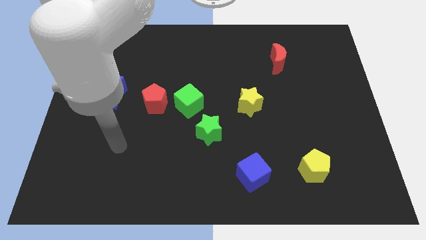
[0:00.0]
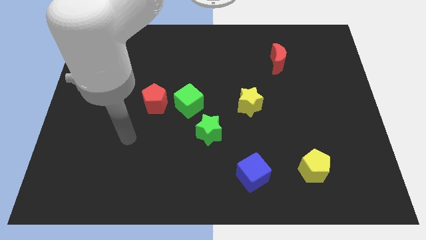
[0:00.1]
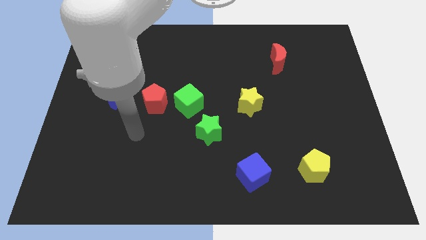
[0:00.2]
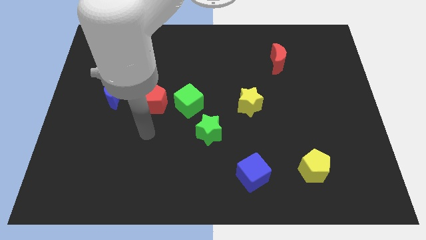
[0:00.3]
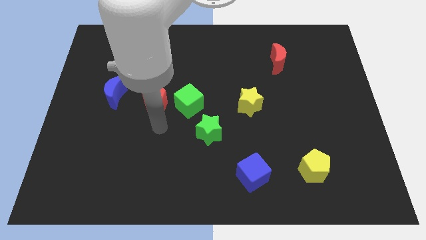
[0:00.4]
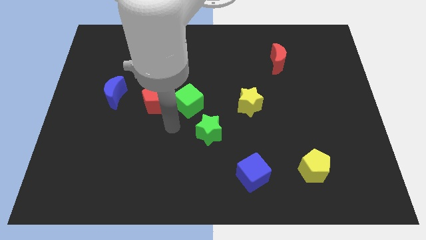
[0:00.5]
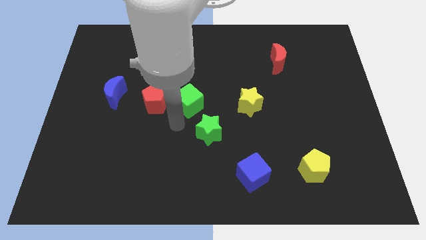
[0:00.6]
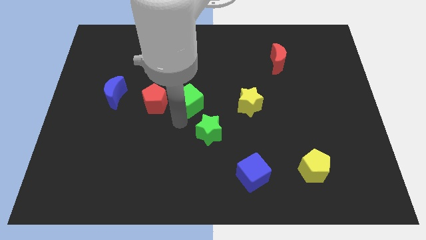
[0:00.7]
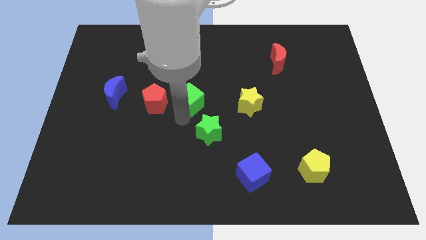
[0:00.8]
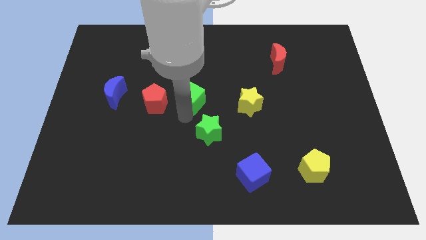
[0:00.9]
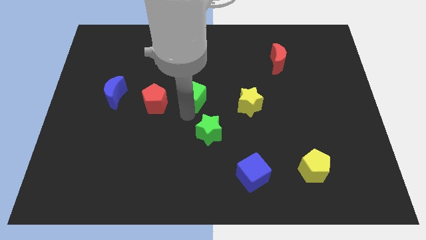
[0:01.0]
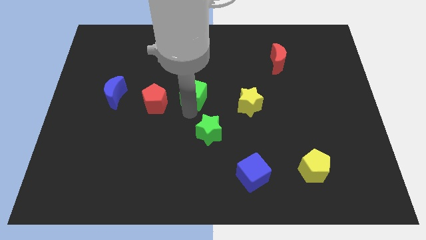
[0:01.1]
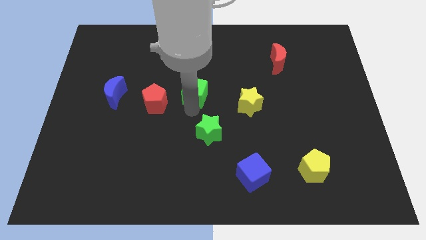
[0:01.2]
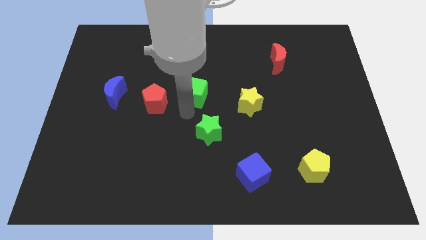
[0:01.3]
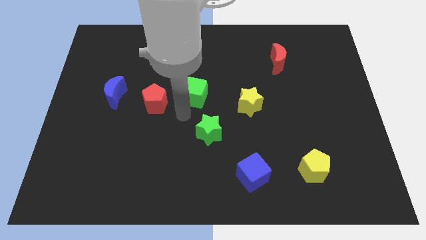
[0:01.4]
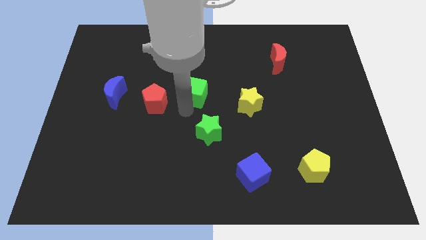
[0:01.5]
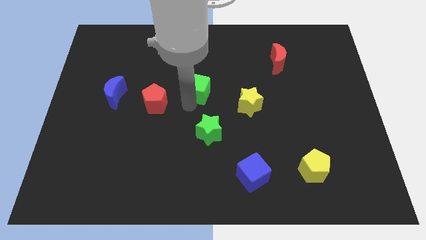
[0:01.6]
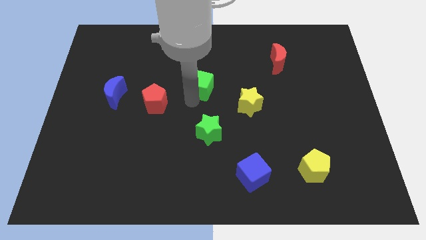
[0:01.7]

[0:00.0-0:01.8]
pull the green cube apart from the red pentagon and green star

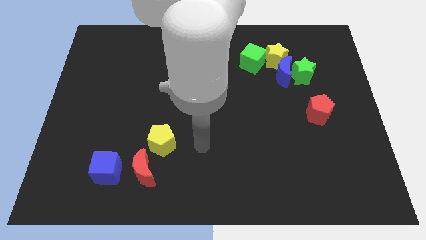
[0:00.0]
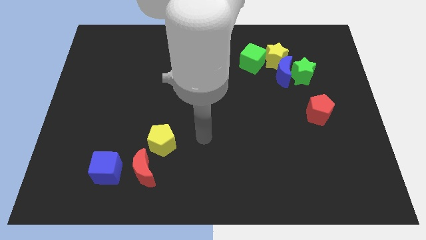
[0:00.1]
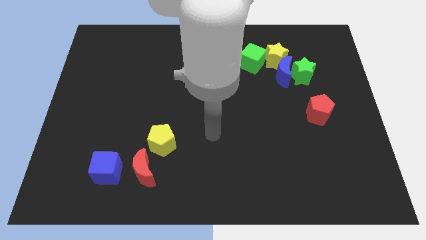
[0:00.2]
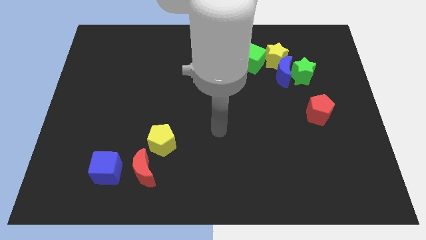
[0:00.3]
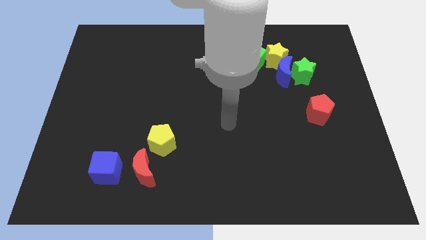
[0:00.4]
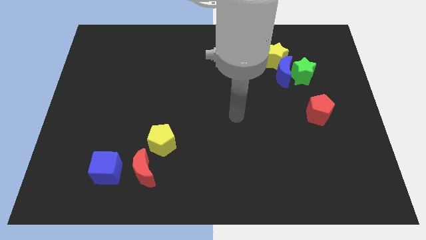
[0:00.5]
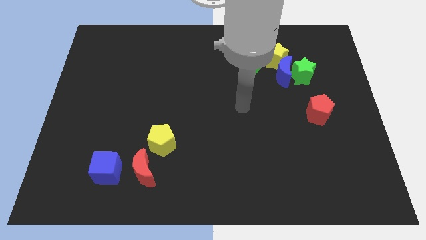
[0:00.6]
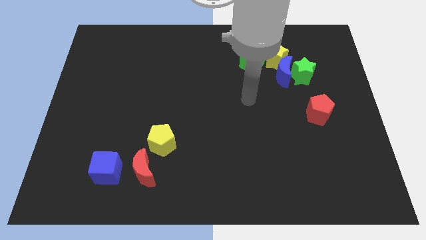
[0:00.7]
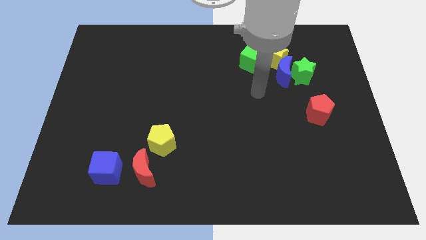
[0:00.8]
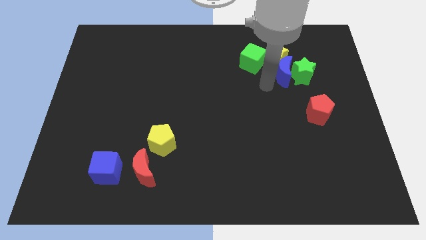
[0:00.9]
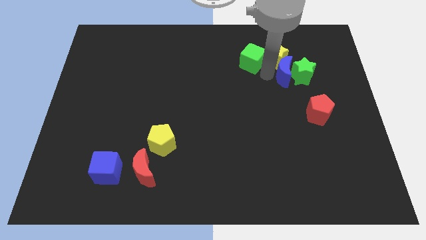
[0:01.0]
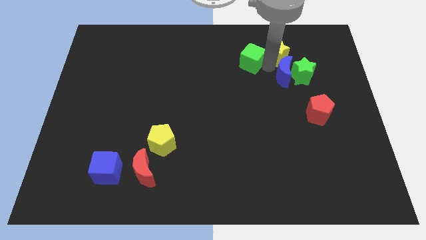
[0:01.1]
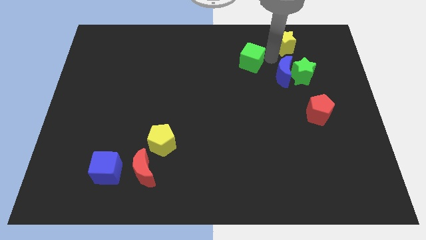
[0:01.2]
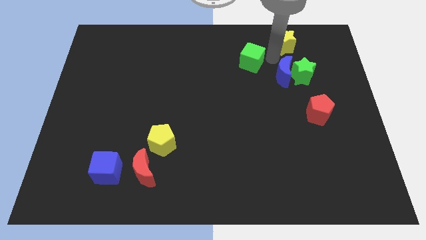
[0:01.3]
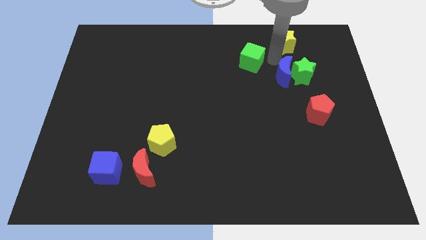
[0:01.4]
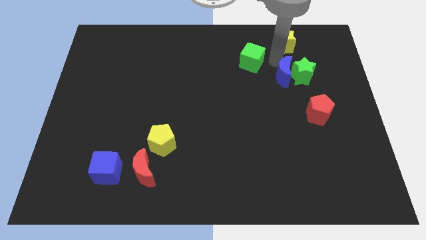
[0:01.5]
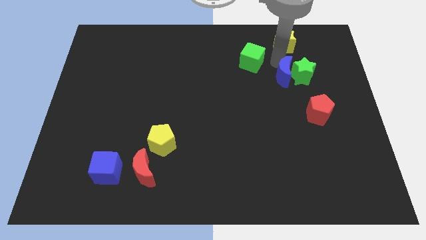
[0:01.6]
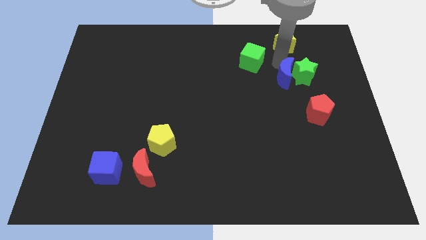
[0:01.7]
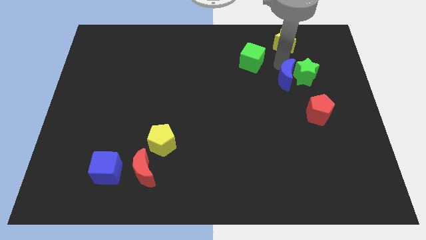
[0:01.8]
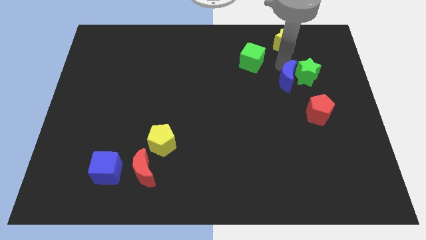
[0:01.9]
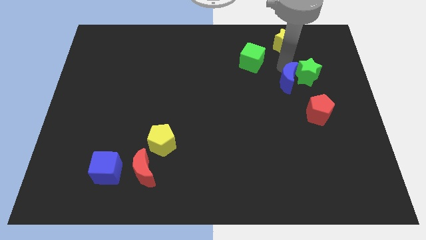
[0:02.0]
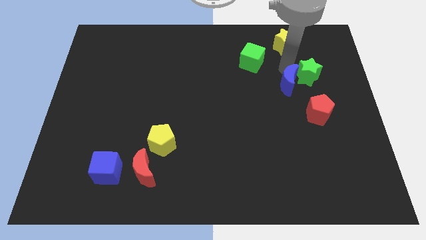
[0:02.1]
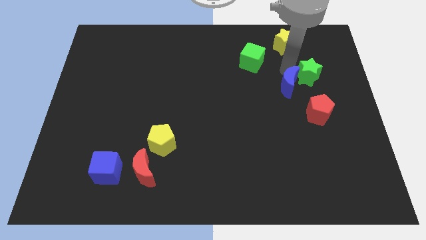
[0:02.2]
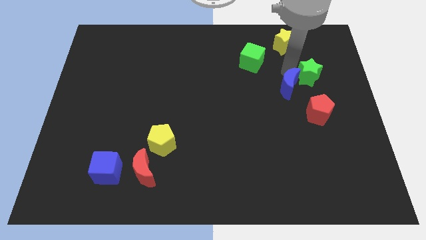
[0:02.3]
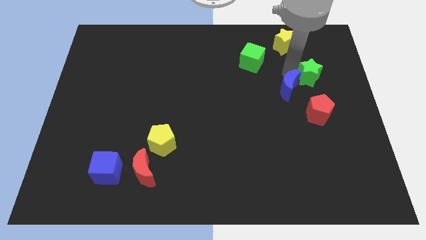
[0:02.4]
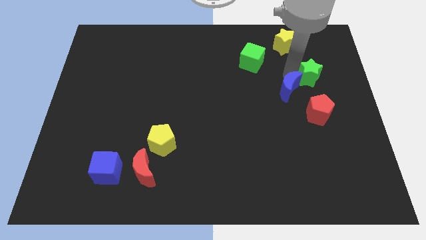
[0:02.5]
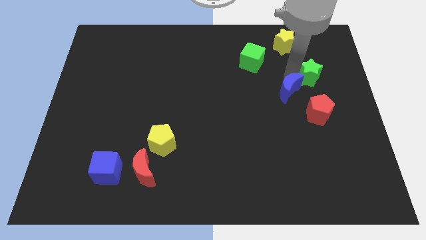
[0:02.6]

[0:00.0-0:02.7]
move the blue moon away from the green star, yellow star, and green cube

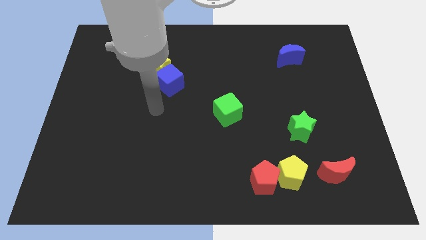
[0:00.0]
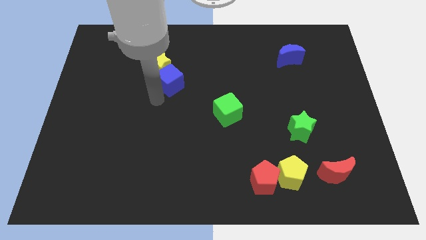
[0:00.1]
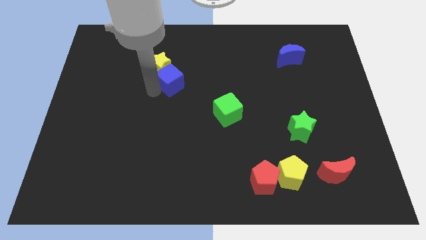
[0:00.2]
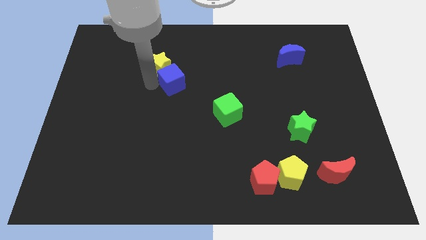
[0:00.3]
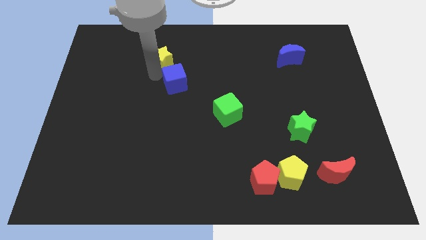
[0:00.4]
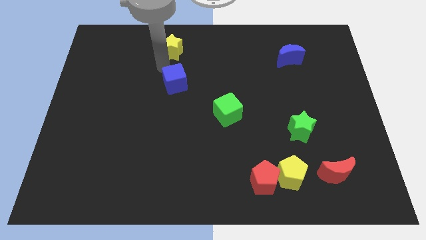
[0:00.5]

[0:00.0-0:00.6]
move the blue cube away from the yellow star

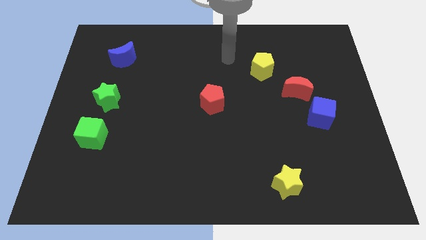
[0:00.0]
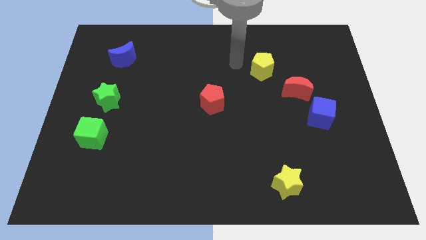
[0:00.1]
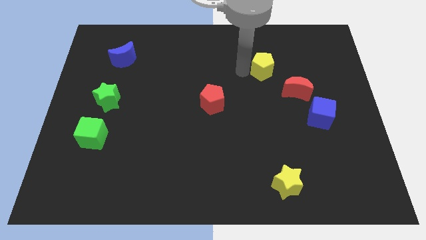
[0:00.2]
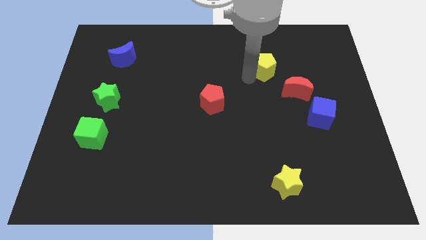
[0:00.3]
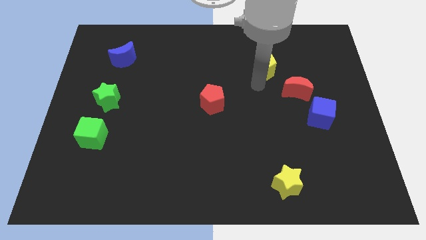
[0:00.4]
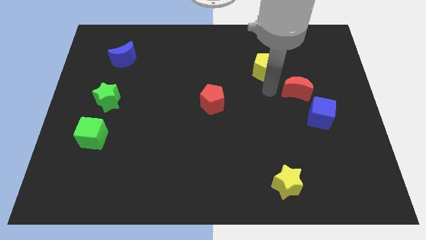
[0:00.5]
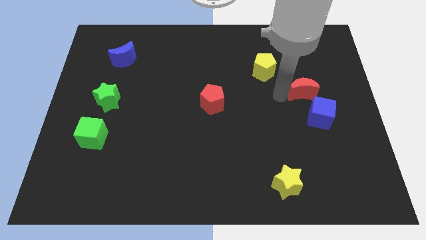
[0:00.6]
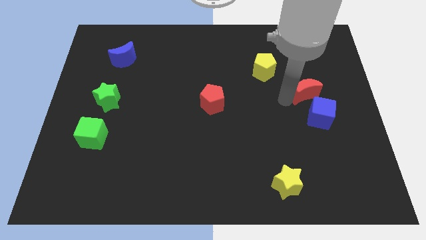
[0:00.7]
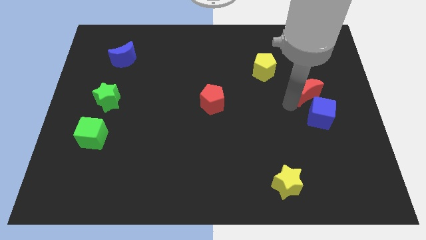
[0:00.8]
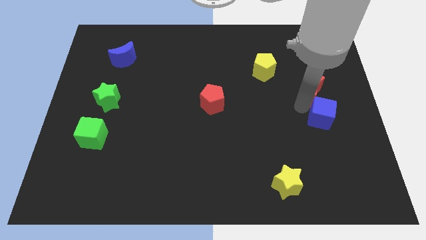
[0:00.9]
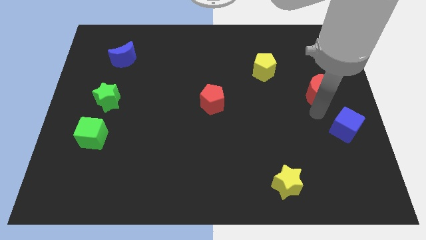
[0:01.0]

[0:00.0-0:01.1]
separate the red moon from the blue cube

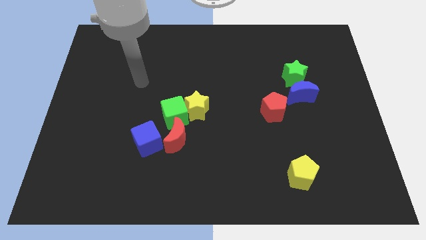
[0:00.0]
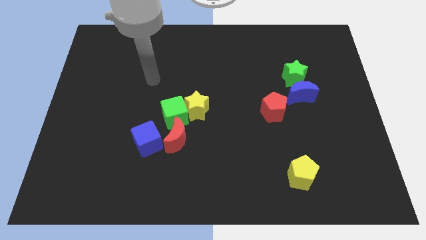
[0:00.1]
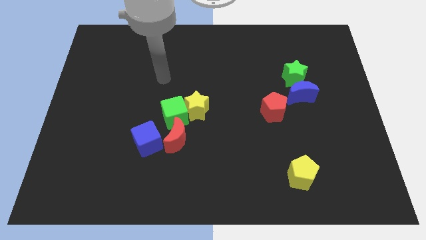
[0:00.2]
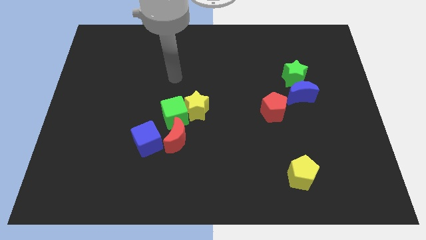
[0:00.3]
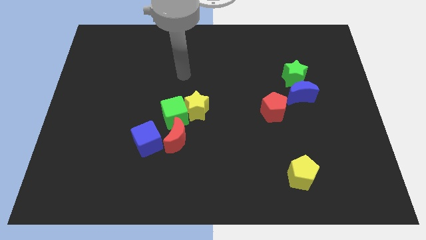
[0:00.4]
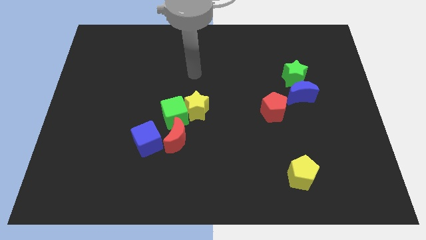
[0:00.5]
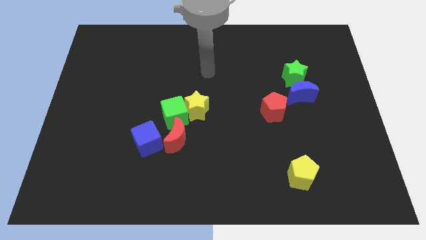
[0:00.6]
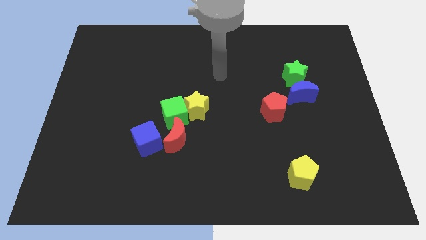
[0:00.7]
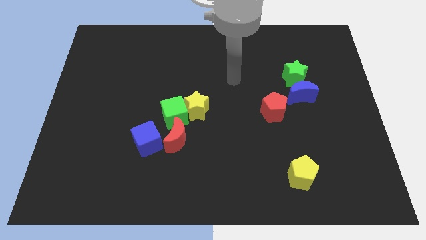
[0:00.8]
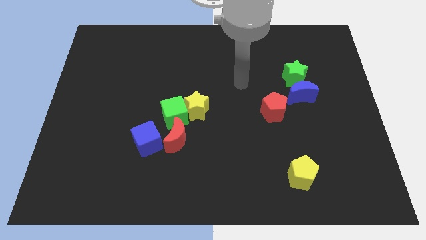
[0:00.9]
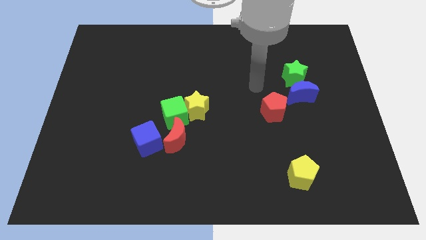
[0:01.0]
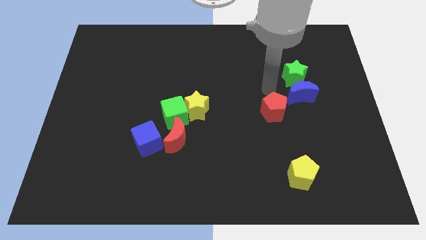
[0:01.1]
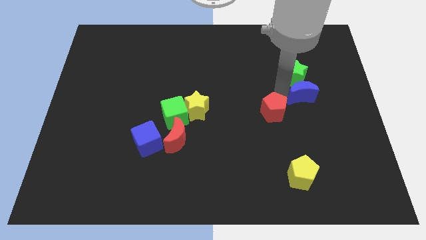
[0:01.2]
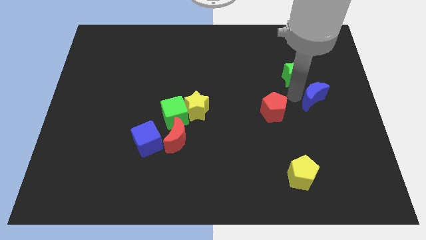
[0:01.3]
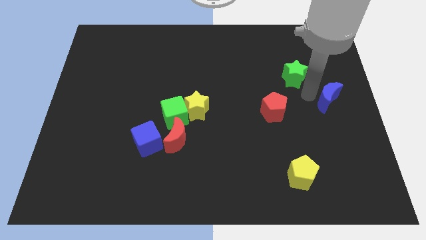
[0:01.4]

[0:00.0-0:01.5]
move the green star away from the blue moon

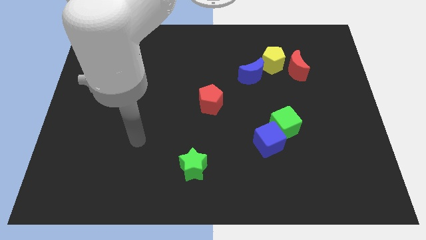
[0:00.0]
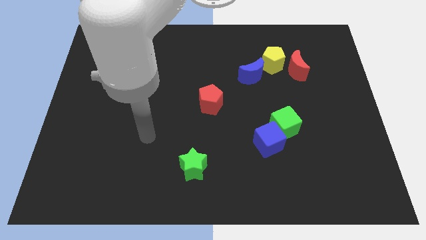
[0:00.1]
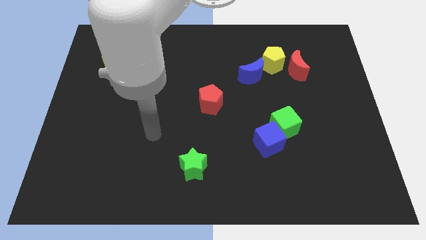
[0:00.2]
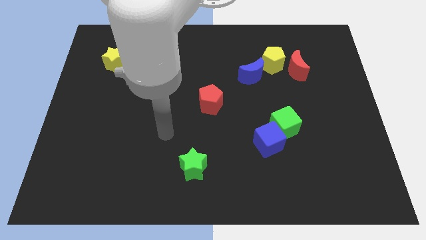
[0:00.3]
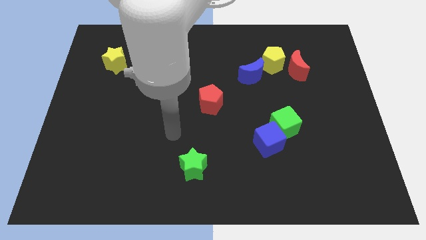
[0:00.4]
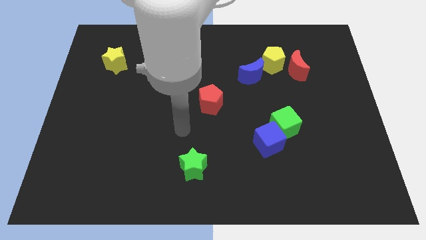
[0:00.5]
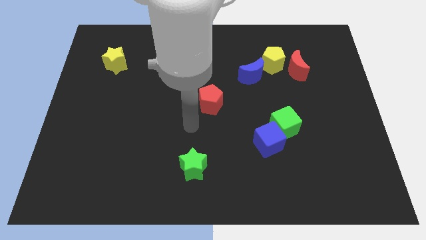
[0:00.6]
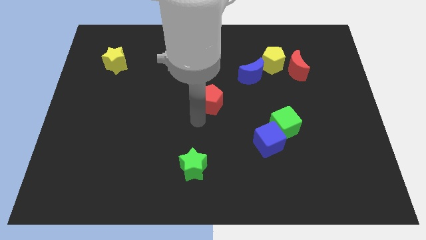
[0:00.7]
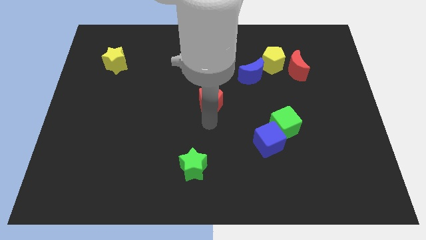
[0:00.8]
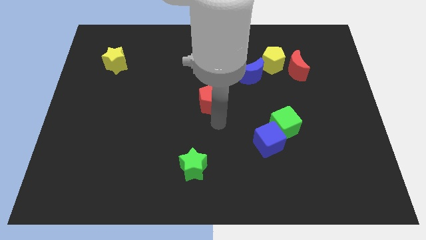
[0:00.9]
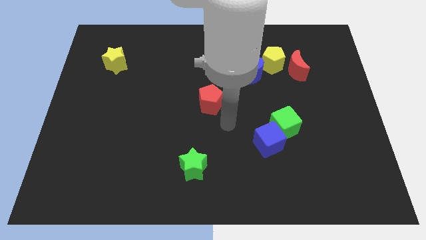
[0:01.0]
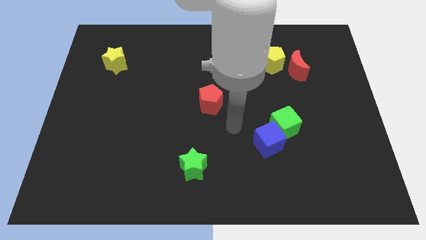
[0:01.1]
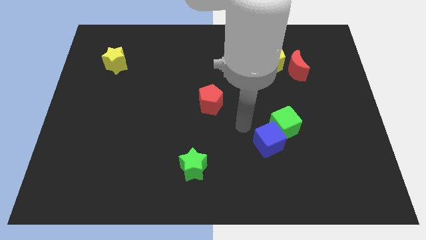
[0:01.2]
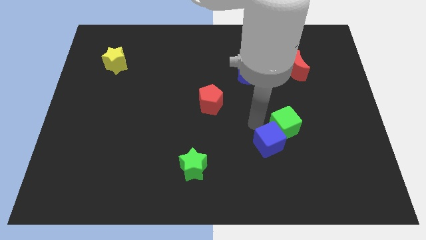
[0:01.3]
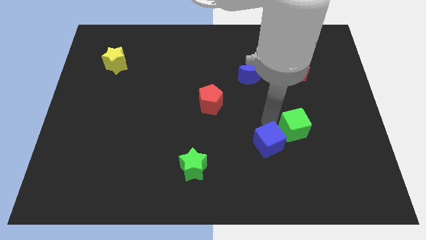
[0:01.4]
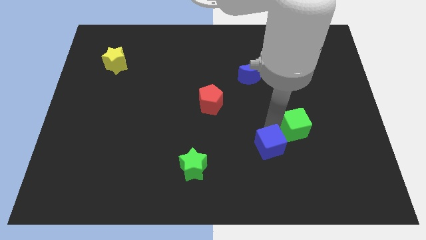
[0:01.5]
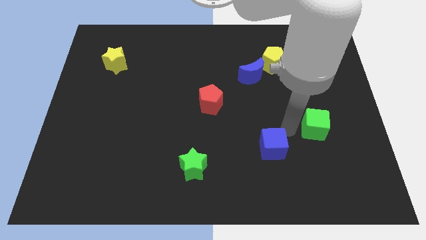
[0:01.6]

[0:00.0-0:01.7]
separate the blue cube from the green cube
